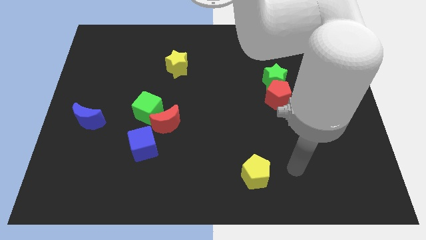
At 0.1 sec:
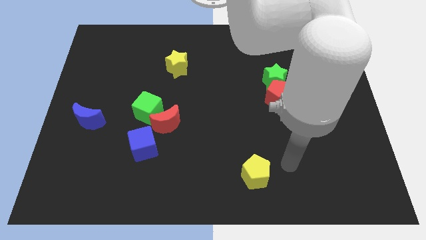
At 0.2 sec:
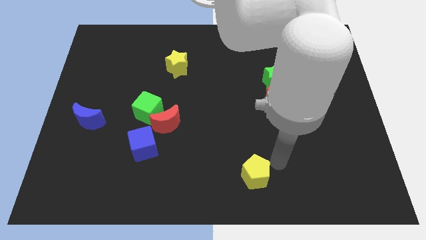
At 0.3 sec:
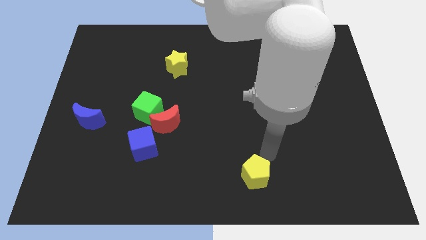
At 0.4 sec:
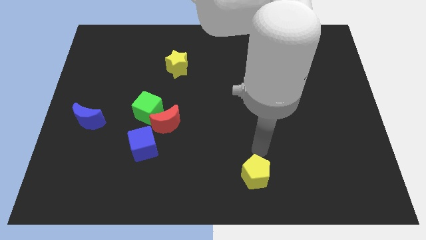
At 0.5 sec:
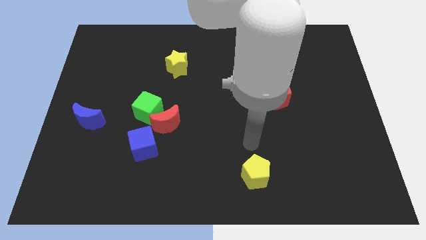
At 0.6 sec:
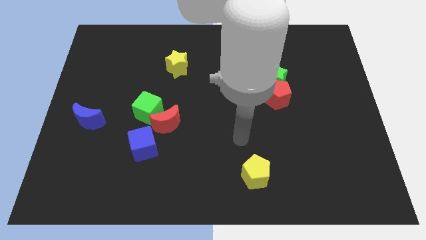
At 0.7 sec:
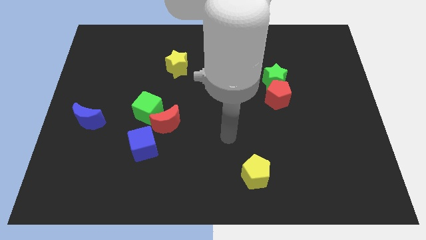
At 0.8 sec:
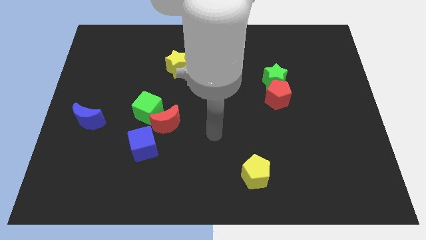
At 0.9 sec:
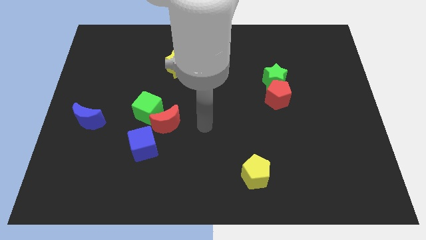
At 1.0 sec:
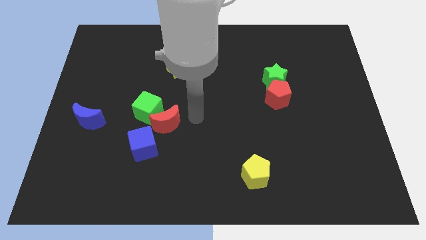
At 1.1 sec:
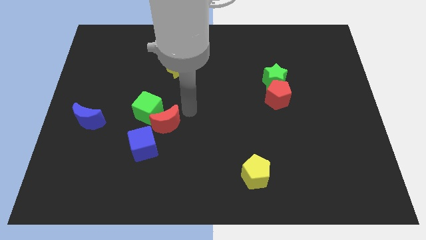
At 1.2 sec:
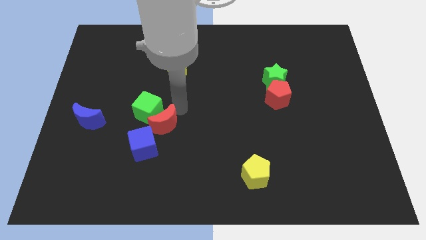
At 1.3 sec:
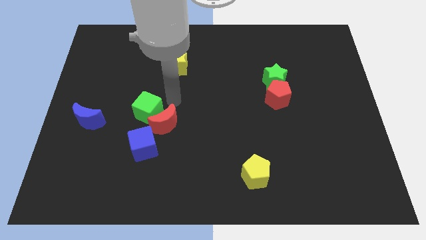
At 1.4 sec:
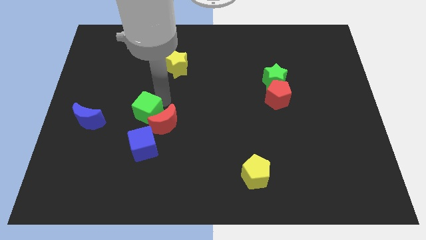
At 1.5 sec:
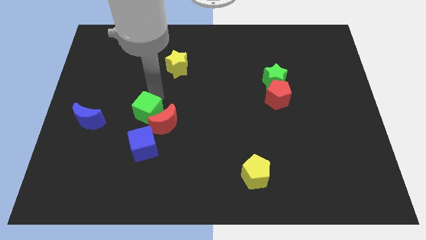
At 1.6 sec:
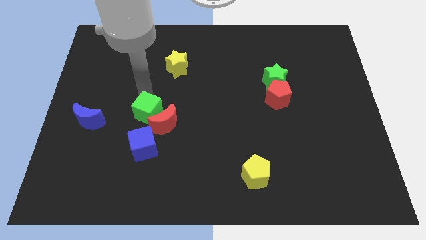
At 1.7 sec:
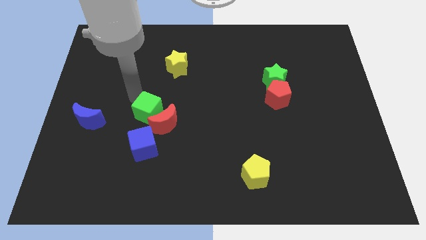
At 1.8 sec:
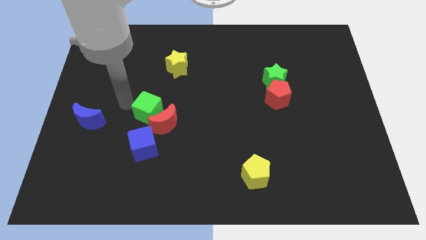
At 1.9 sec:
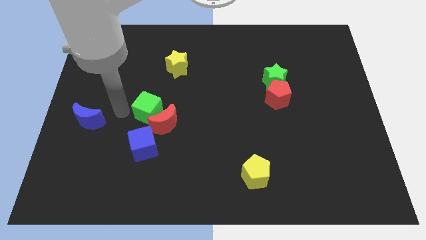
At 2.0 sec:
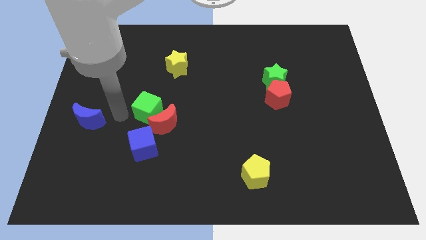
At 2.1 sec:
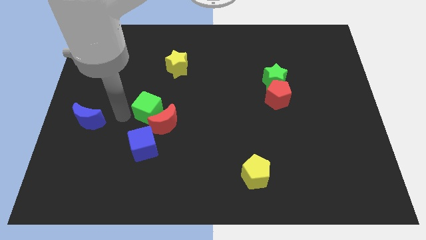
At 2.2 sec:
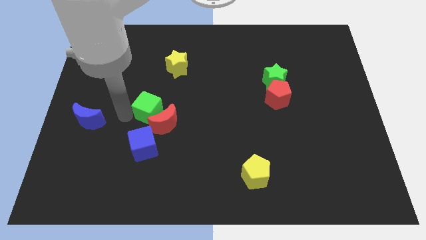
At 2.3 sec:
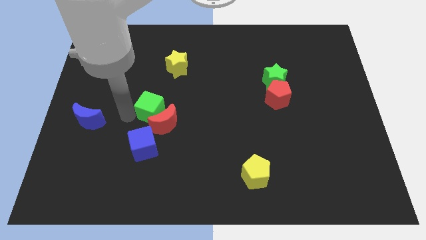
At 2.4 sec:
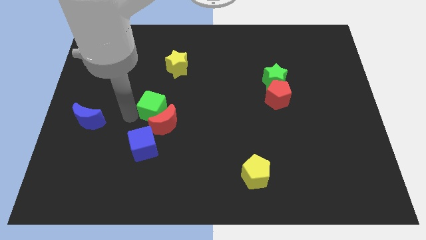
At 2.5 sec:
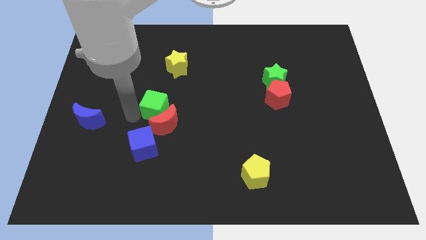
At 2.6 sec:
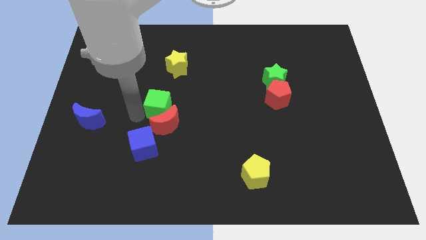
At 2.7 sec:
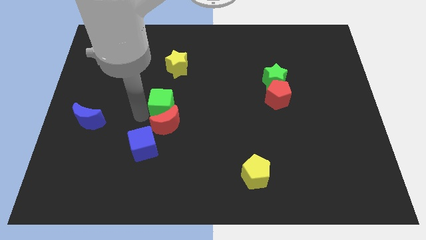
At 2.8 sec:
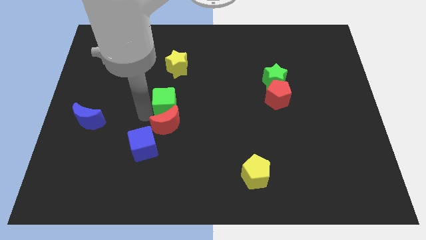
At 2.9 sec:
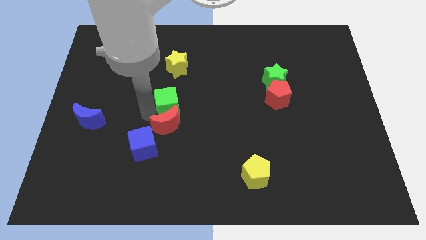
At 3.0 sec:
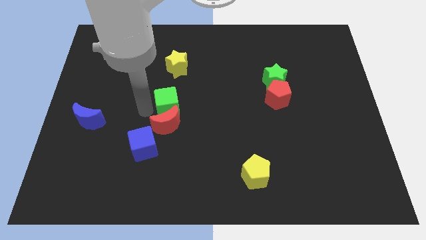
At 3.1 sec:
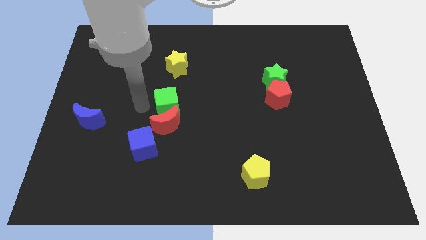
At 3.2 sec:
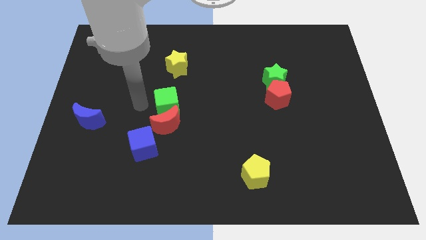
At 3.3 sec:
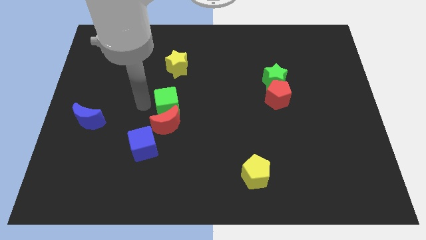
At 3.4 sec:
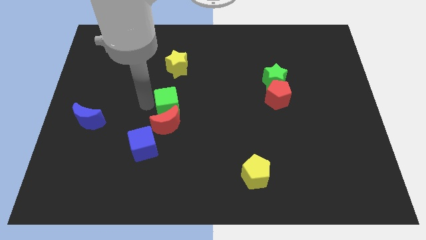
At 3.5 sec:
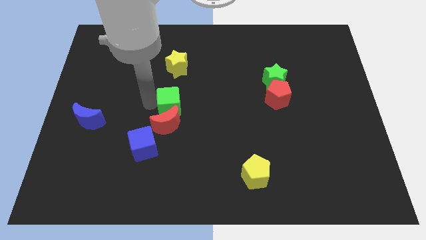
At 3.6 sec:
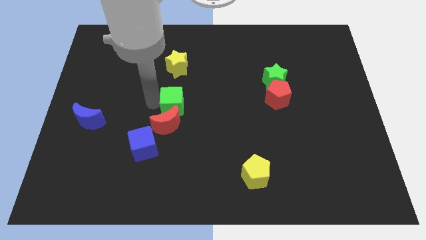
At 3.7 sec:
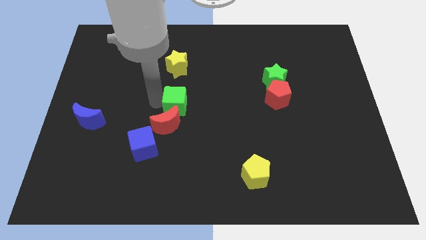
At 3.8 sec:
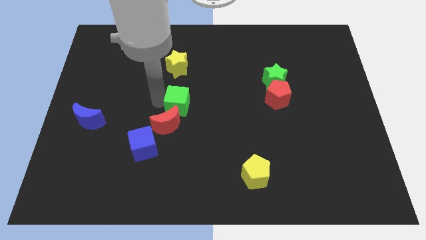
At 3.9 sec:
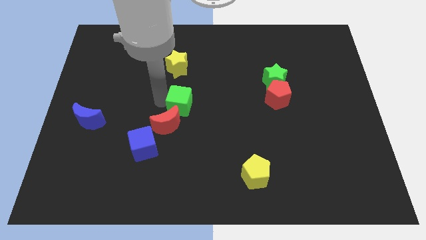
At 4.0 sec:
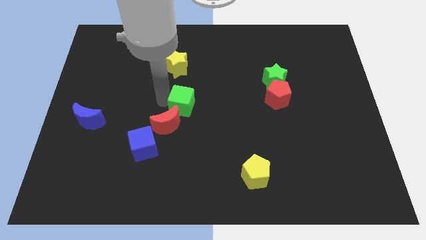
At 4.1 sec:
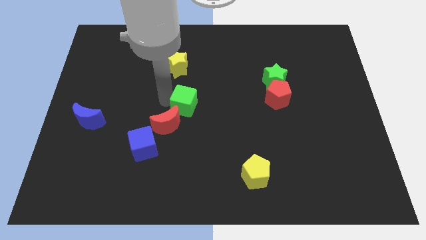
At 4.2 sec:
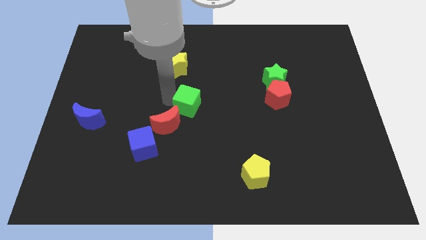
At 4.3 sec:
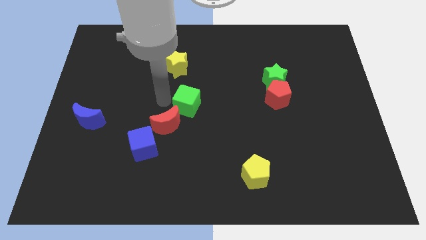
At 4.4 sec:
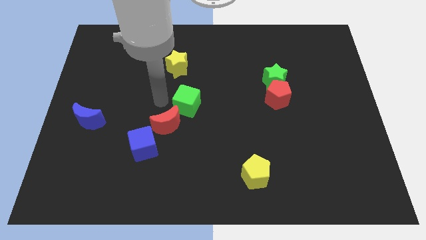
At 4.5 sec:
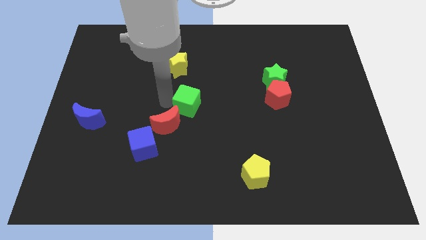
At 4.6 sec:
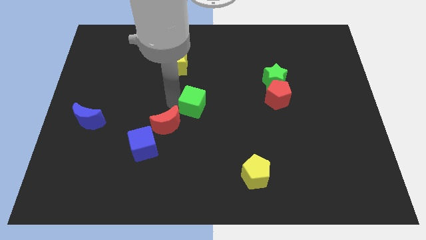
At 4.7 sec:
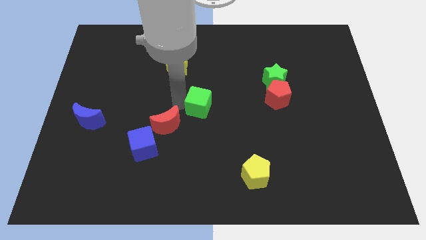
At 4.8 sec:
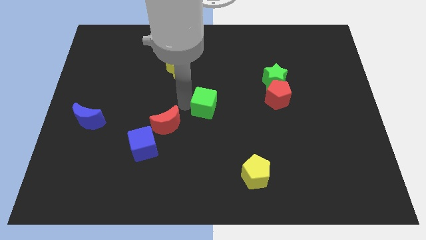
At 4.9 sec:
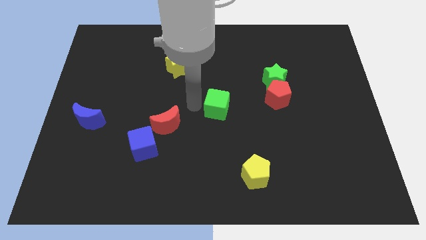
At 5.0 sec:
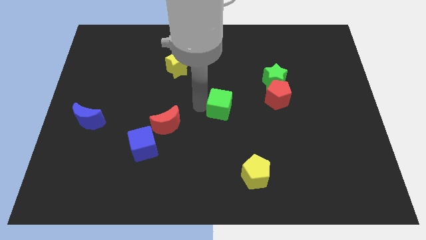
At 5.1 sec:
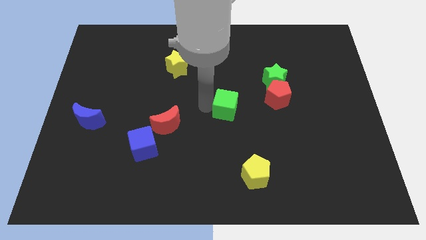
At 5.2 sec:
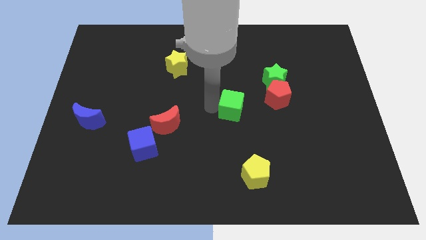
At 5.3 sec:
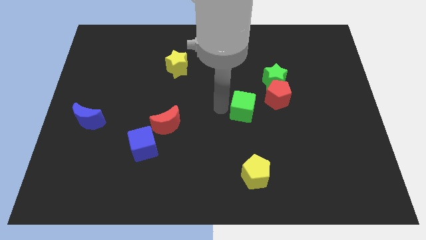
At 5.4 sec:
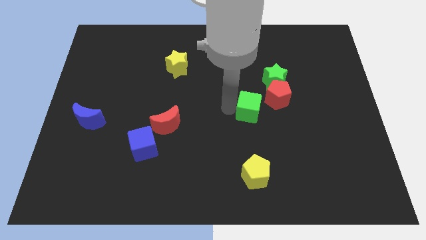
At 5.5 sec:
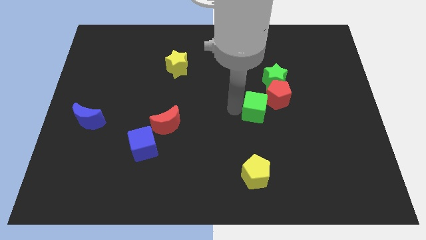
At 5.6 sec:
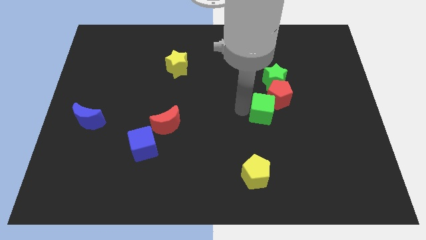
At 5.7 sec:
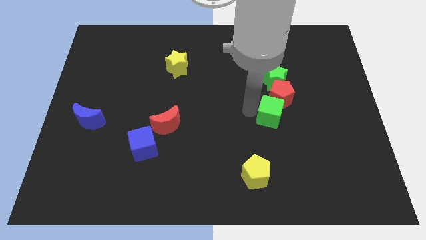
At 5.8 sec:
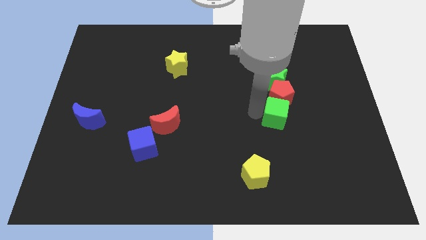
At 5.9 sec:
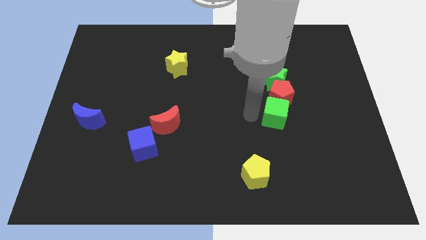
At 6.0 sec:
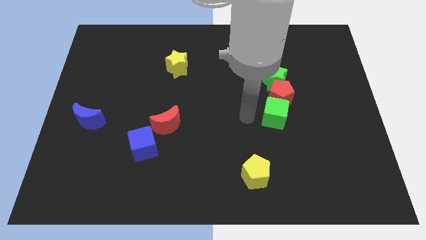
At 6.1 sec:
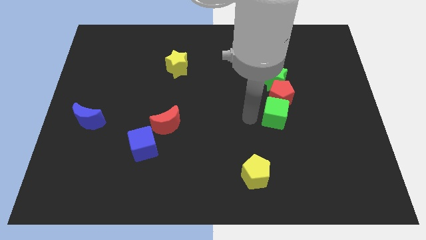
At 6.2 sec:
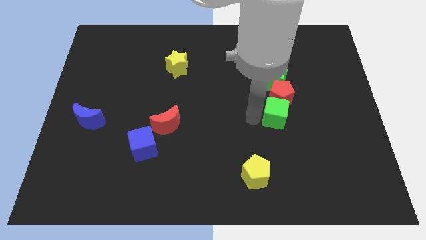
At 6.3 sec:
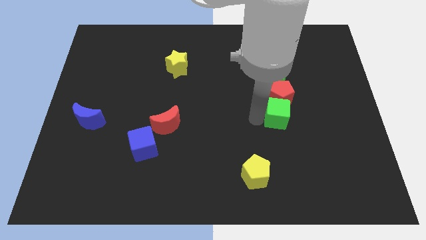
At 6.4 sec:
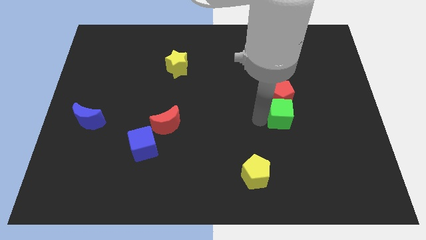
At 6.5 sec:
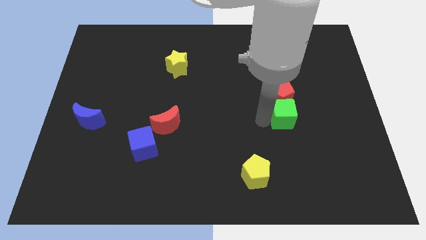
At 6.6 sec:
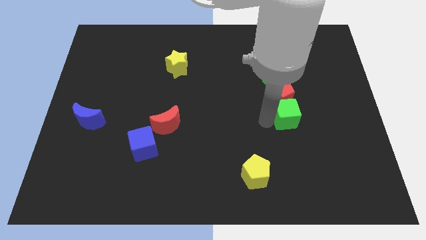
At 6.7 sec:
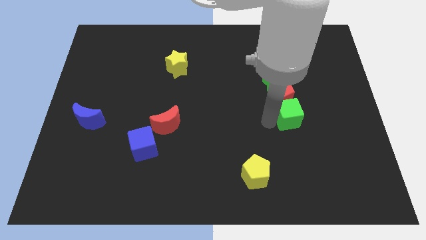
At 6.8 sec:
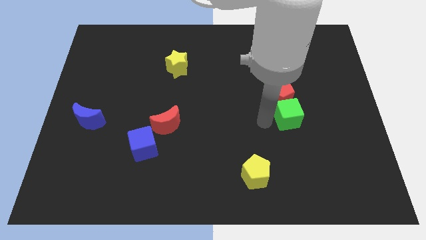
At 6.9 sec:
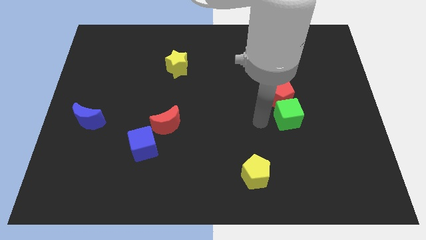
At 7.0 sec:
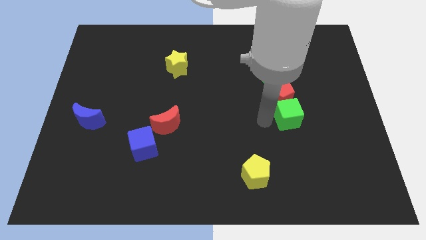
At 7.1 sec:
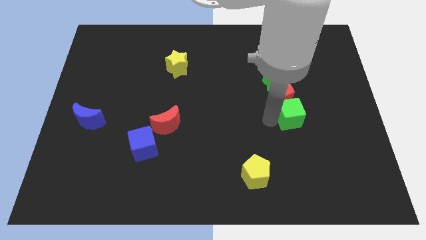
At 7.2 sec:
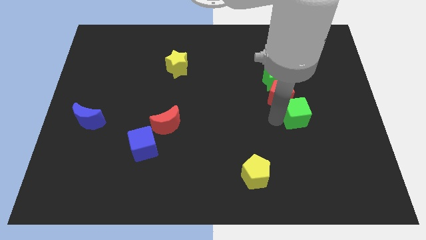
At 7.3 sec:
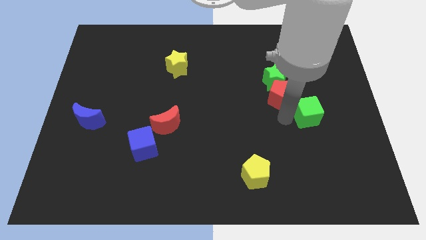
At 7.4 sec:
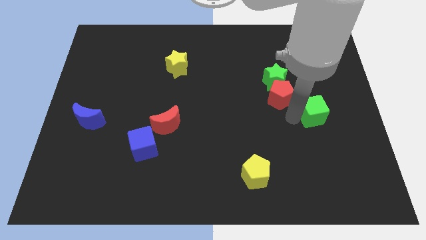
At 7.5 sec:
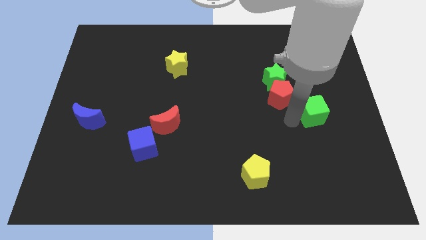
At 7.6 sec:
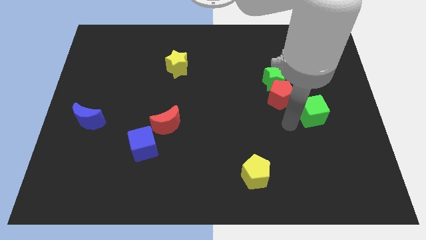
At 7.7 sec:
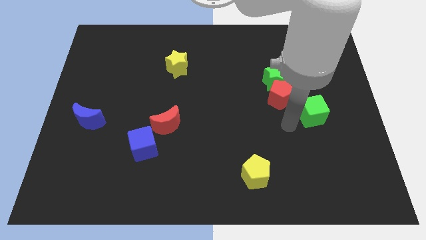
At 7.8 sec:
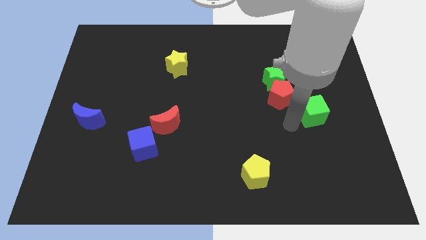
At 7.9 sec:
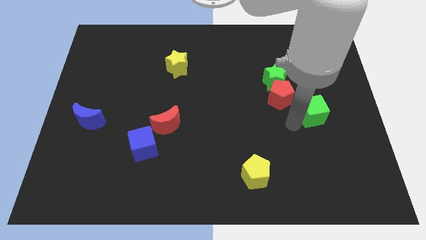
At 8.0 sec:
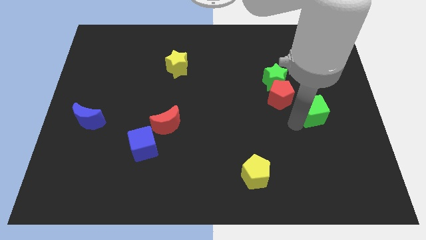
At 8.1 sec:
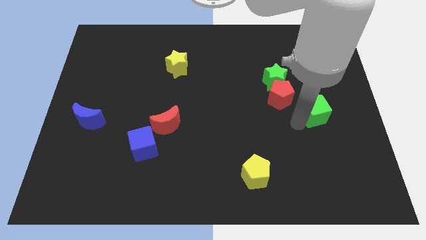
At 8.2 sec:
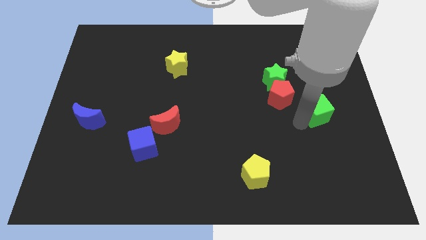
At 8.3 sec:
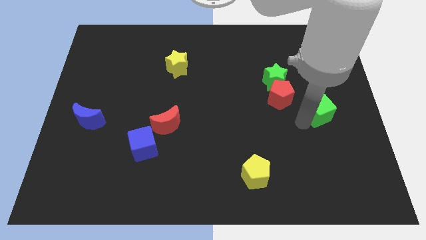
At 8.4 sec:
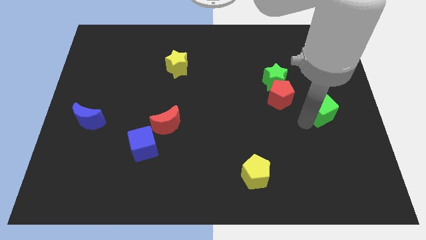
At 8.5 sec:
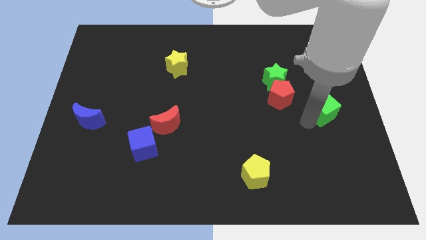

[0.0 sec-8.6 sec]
push the green cube to the right side
